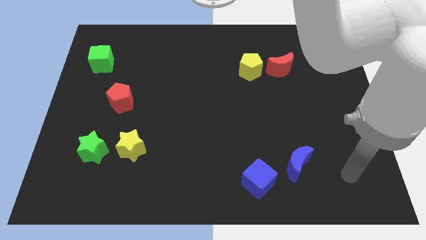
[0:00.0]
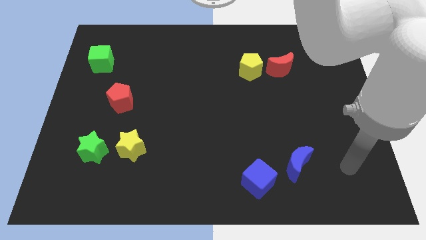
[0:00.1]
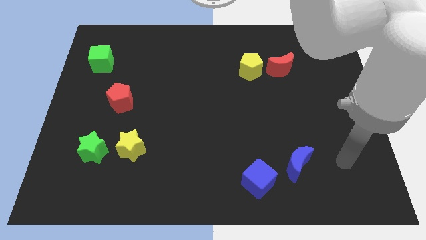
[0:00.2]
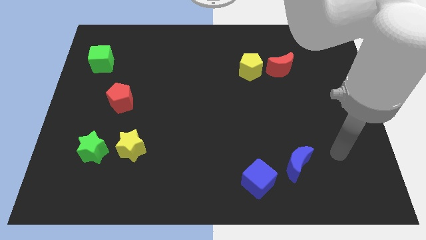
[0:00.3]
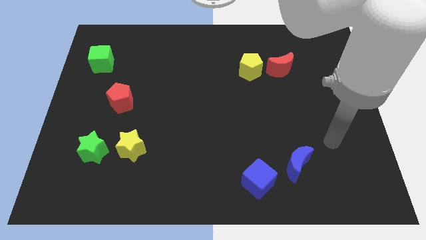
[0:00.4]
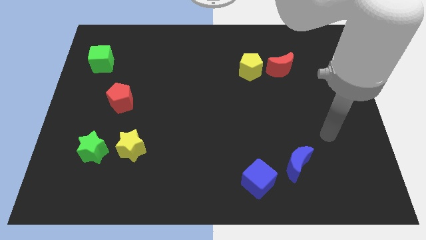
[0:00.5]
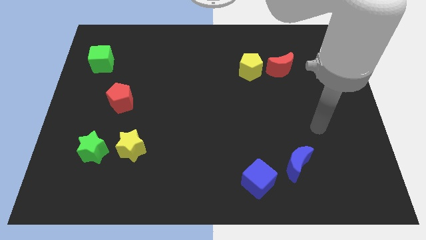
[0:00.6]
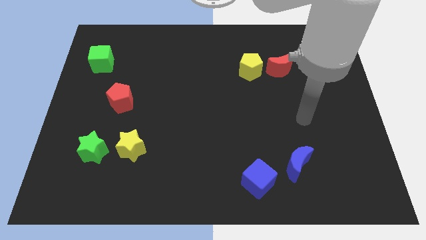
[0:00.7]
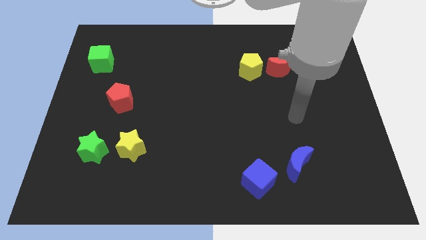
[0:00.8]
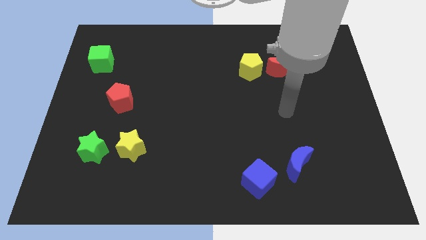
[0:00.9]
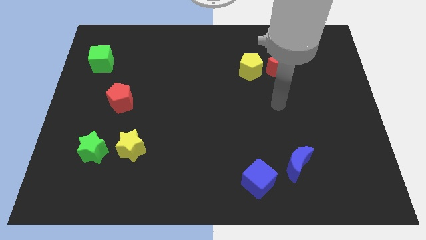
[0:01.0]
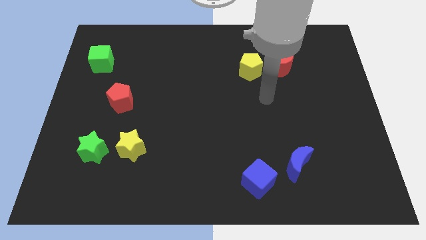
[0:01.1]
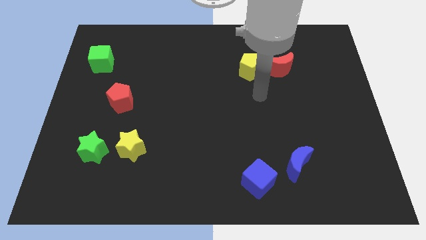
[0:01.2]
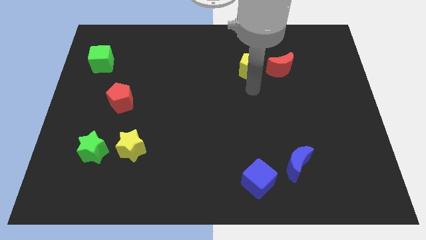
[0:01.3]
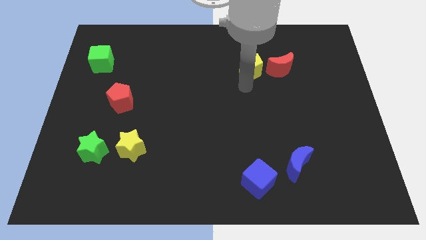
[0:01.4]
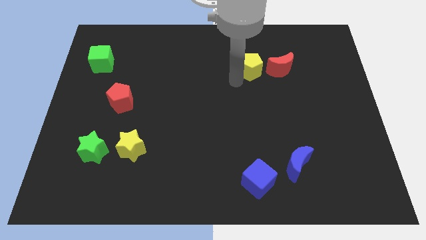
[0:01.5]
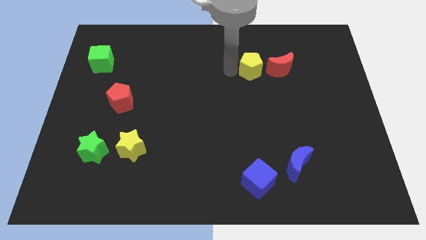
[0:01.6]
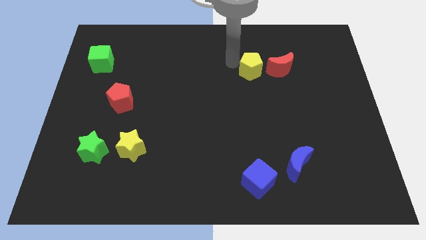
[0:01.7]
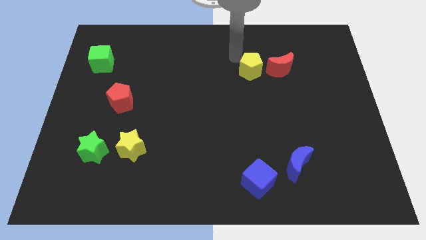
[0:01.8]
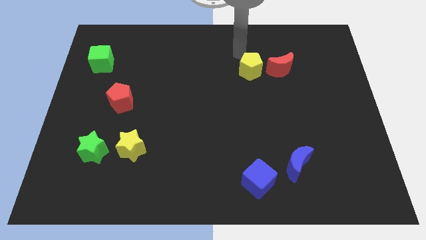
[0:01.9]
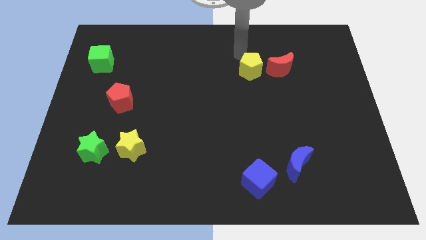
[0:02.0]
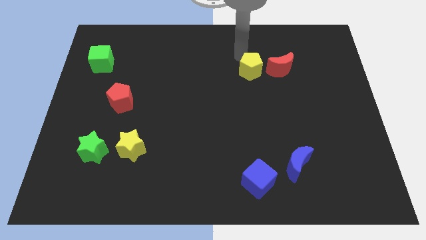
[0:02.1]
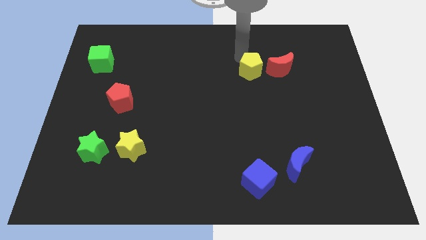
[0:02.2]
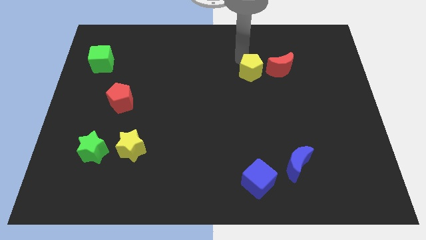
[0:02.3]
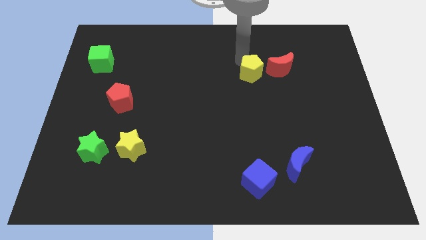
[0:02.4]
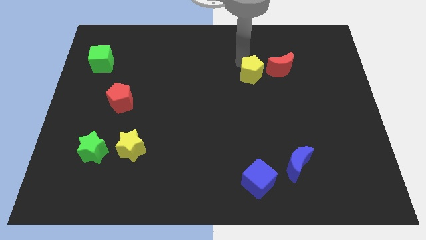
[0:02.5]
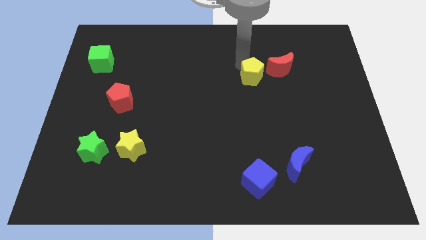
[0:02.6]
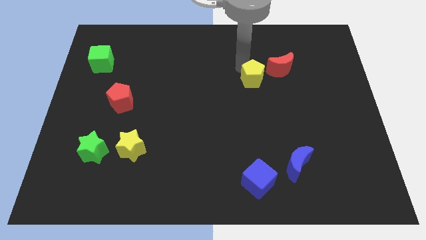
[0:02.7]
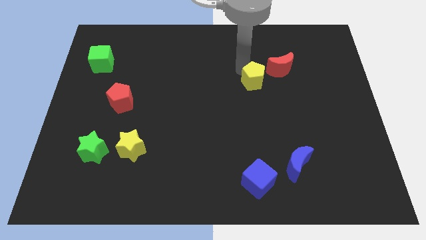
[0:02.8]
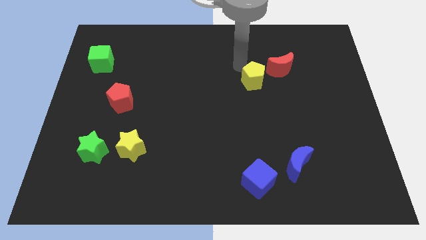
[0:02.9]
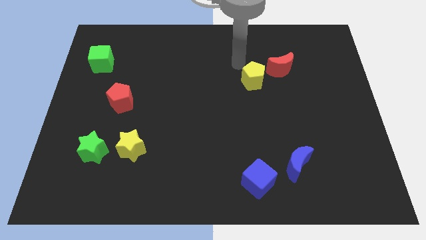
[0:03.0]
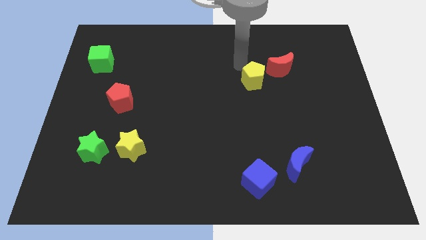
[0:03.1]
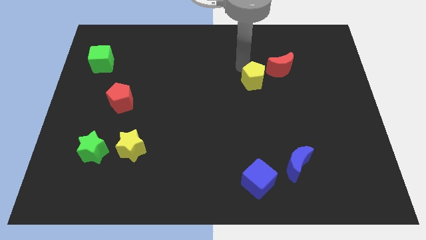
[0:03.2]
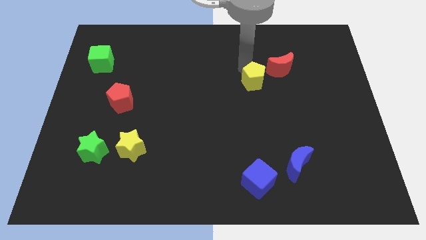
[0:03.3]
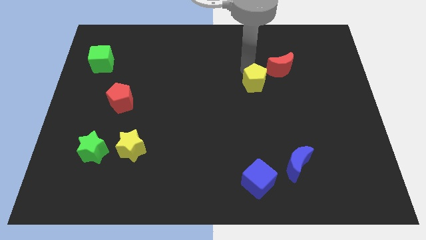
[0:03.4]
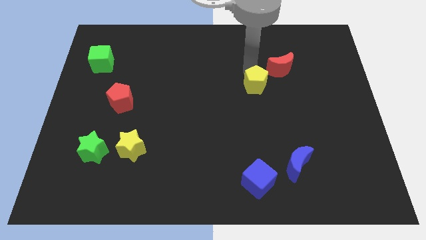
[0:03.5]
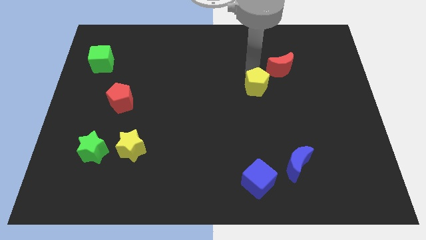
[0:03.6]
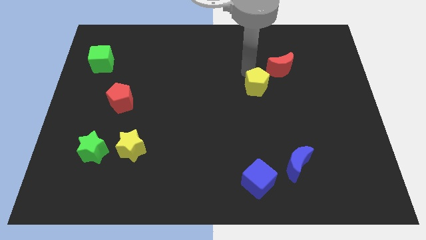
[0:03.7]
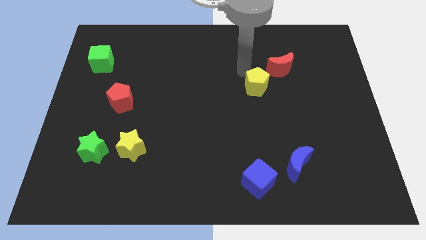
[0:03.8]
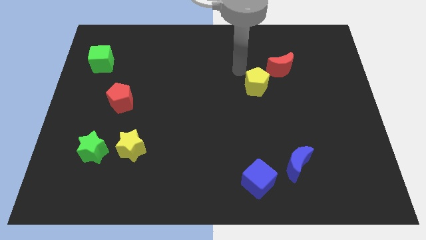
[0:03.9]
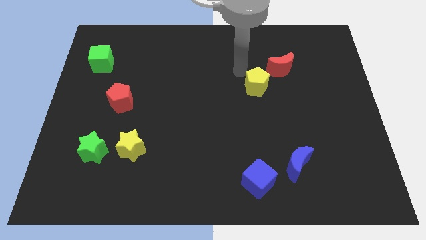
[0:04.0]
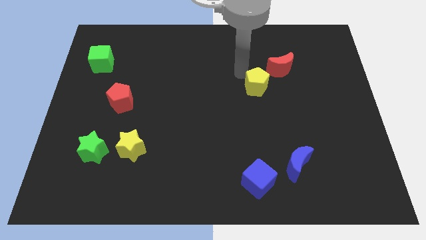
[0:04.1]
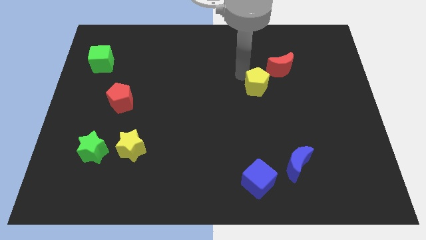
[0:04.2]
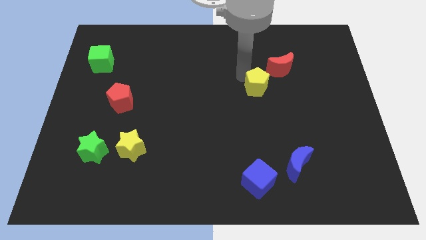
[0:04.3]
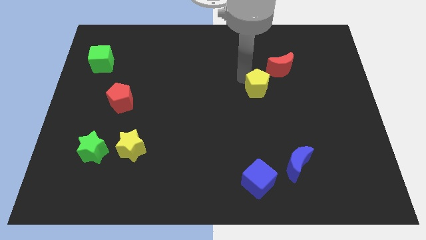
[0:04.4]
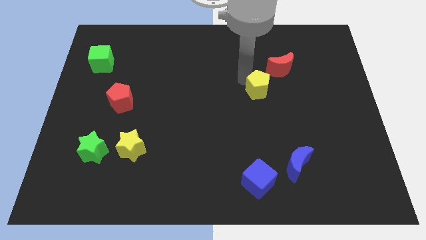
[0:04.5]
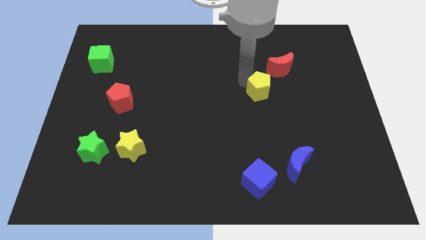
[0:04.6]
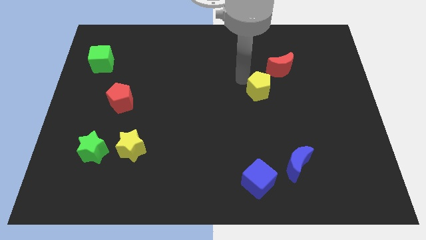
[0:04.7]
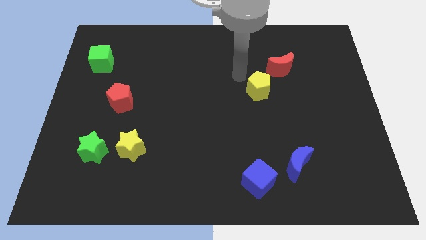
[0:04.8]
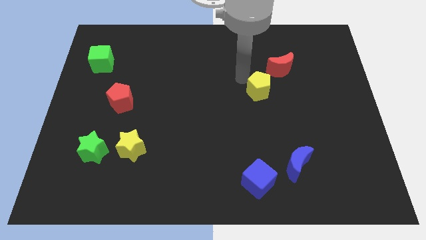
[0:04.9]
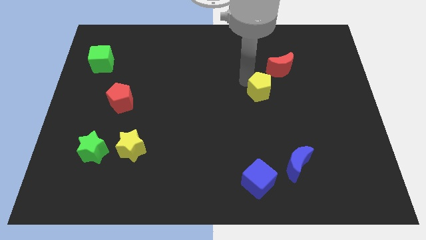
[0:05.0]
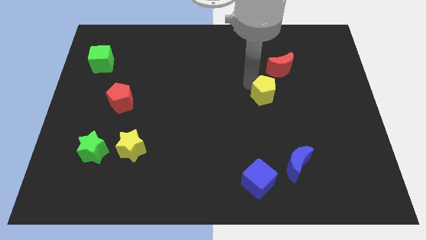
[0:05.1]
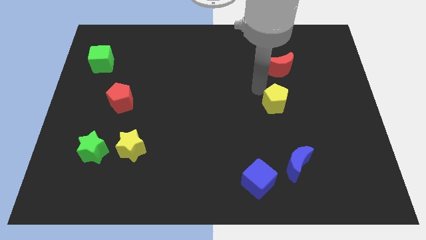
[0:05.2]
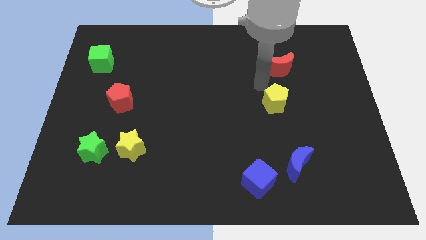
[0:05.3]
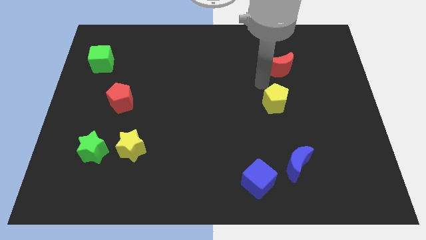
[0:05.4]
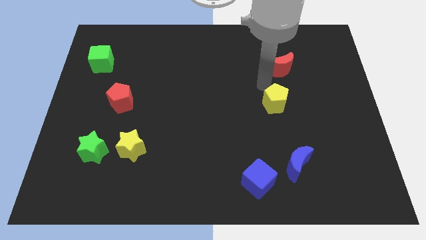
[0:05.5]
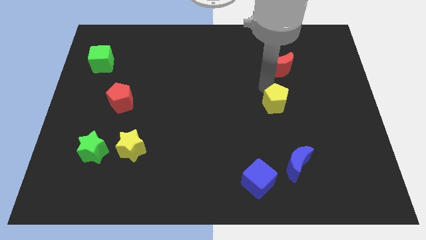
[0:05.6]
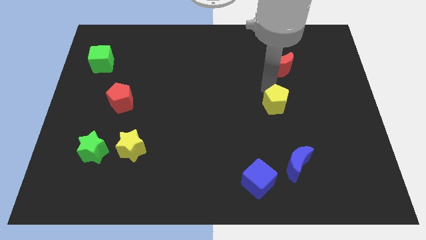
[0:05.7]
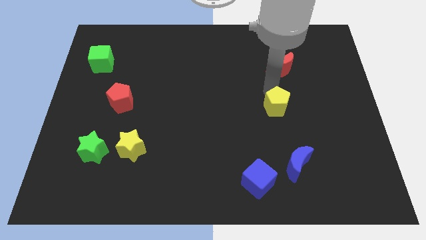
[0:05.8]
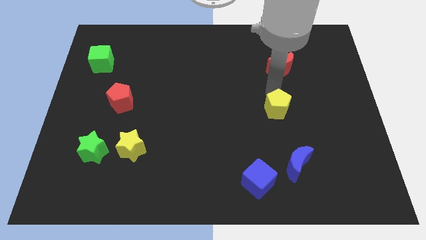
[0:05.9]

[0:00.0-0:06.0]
put the yellow pentagon to the top side of the blue moon

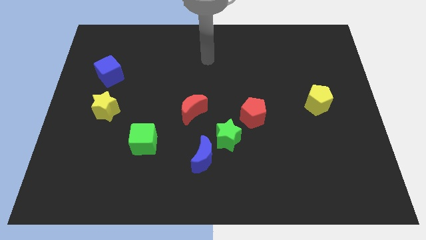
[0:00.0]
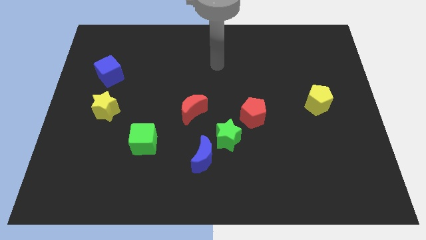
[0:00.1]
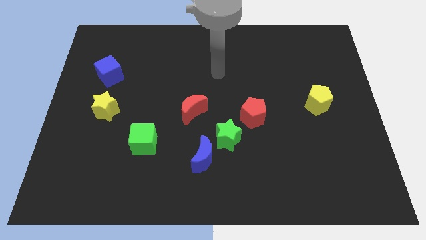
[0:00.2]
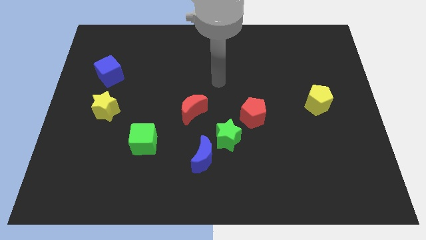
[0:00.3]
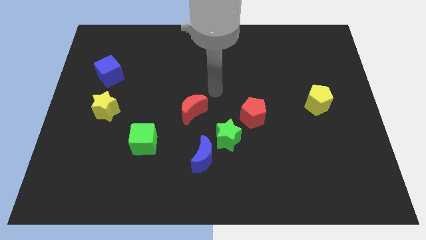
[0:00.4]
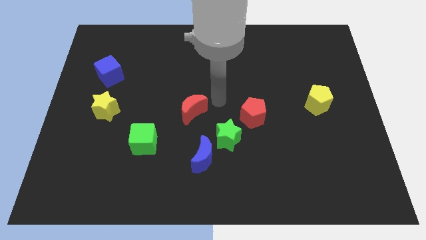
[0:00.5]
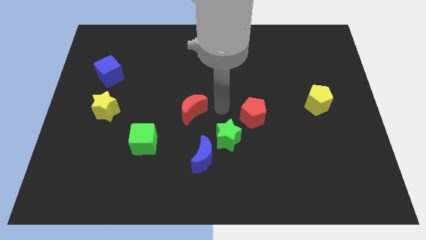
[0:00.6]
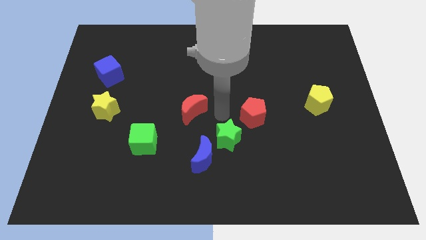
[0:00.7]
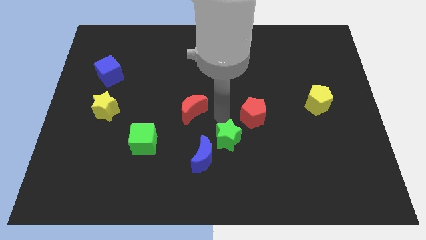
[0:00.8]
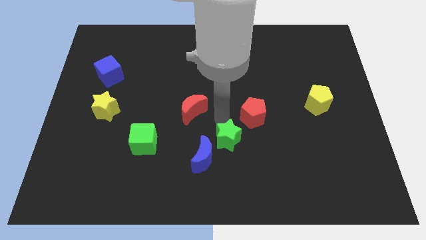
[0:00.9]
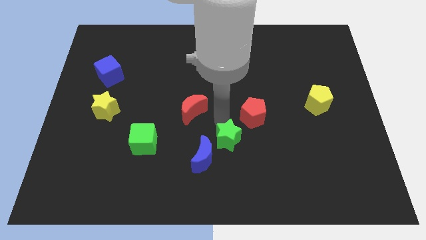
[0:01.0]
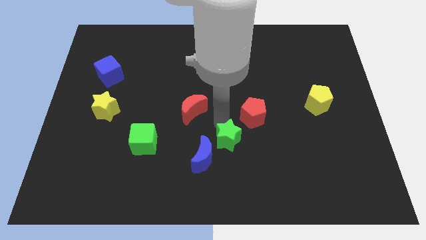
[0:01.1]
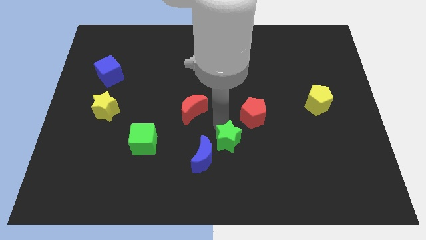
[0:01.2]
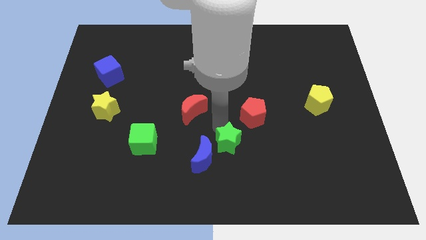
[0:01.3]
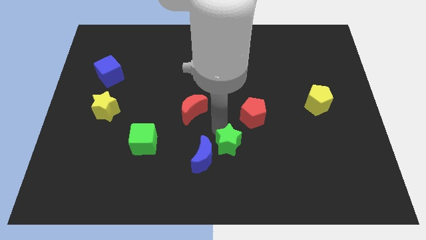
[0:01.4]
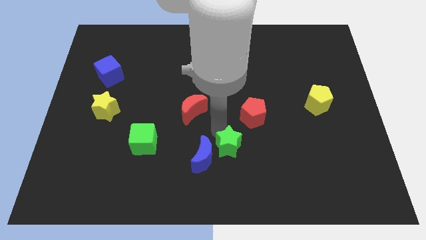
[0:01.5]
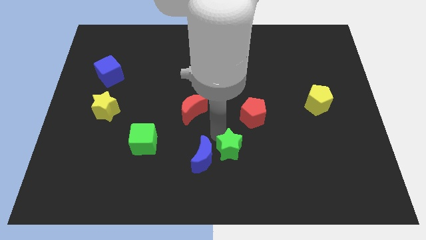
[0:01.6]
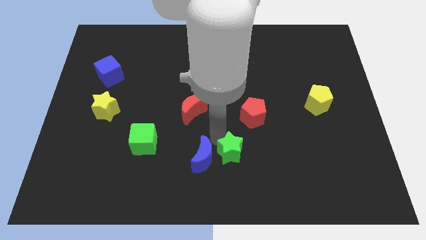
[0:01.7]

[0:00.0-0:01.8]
push the green star to the bottom right side of the blue moon

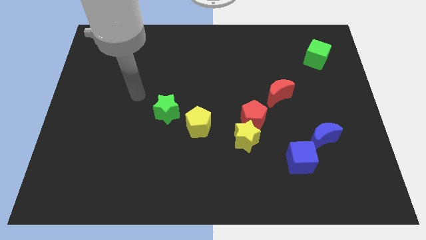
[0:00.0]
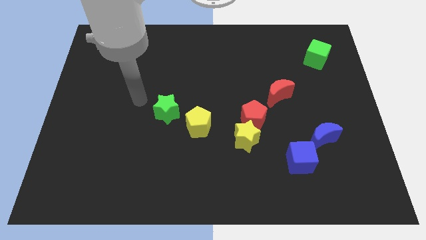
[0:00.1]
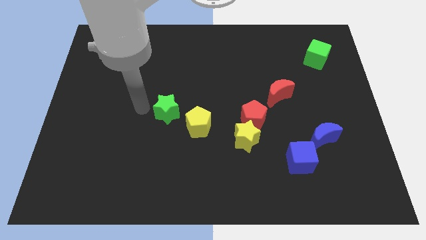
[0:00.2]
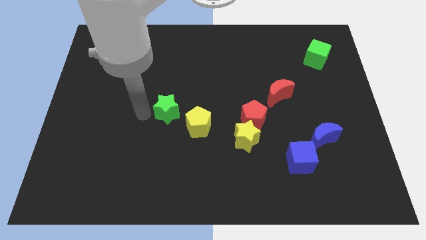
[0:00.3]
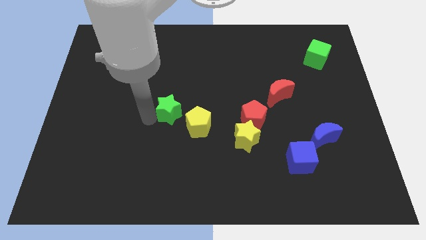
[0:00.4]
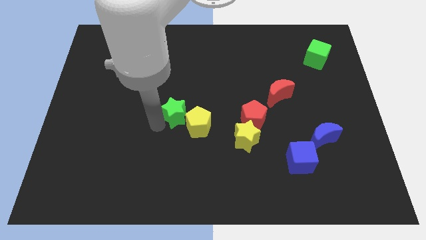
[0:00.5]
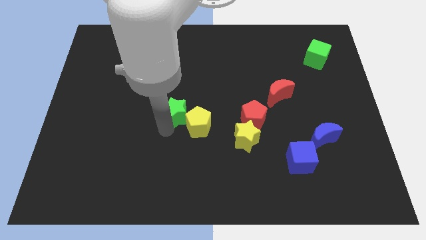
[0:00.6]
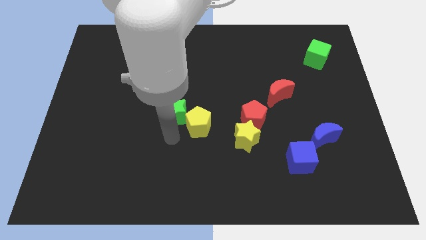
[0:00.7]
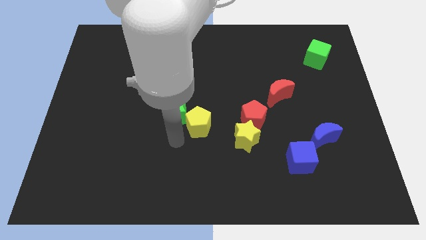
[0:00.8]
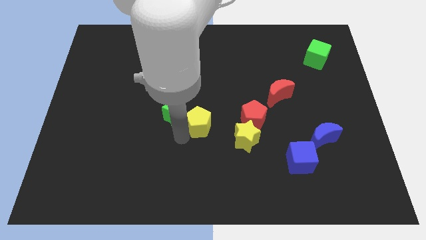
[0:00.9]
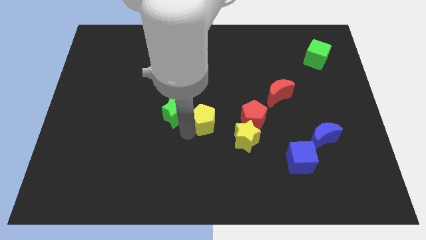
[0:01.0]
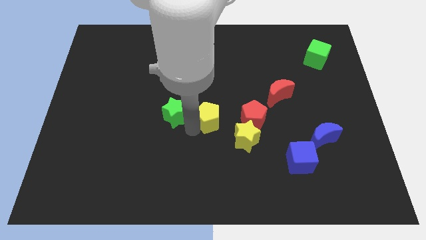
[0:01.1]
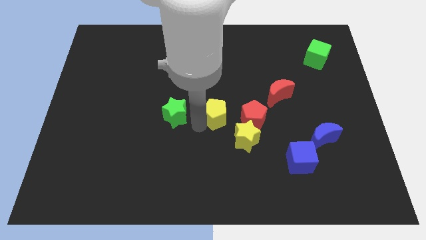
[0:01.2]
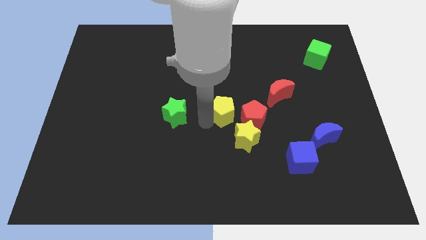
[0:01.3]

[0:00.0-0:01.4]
push the yellow pentagon to the top left side of the red pentagon
